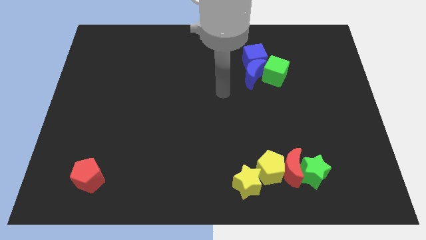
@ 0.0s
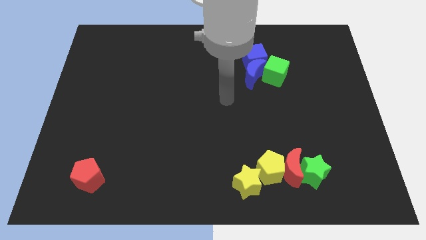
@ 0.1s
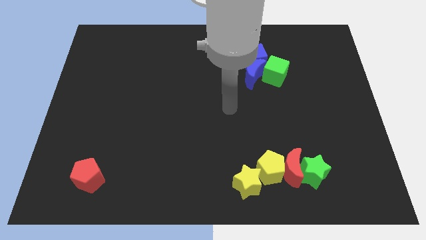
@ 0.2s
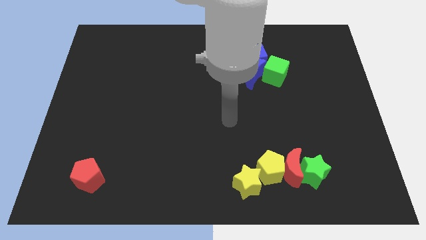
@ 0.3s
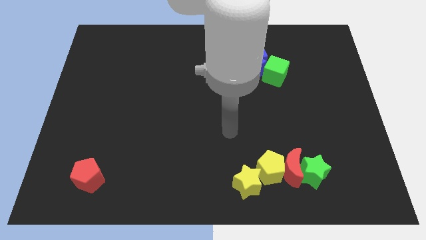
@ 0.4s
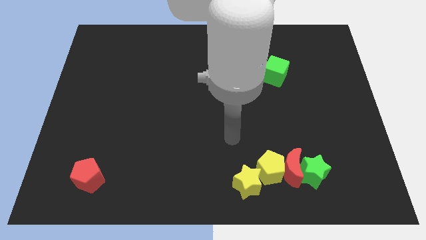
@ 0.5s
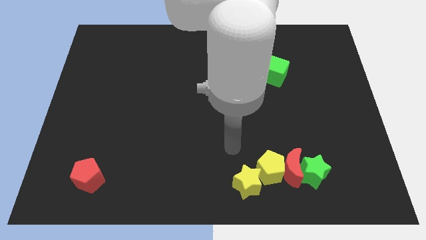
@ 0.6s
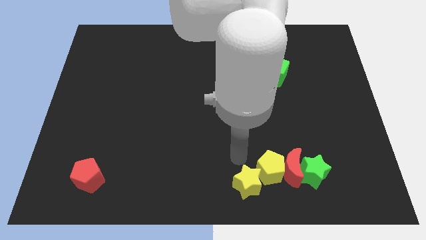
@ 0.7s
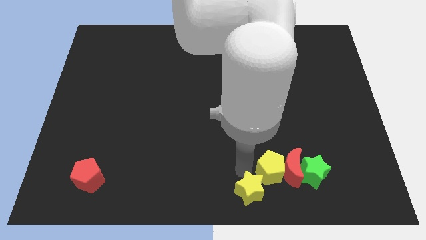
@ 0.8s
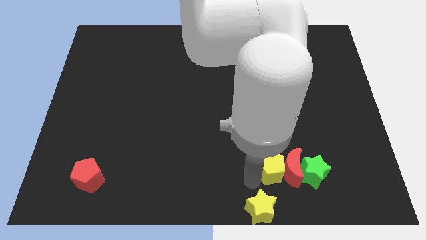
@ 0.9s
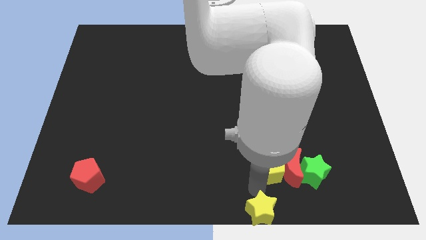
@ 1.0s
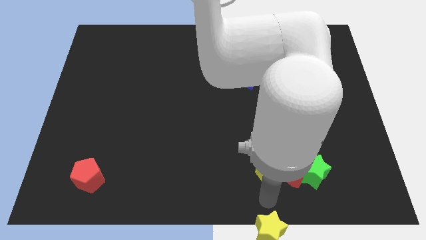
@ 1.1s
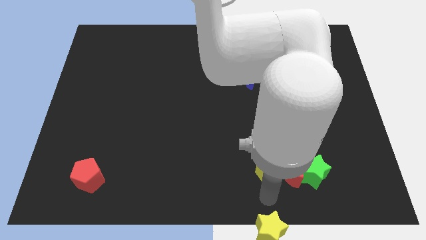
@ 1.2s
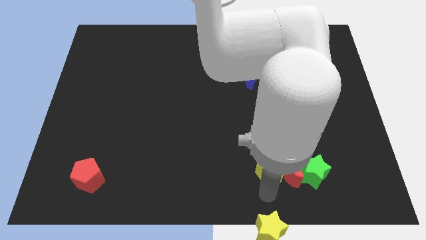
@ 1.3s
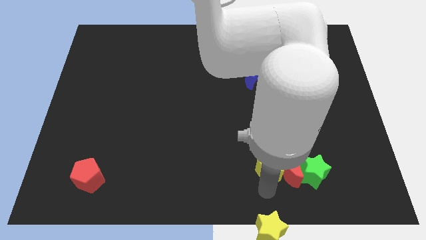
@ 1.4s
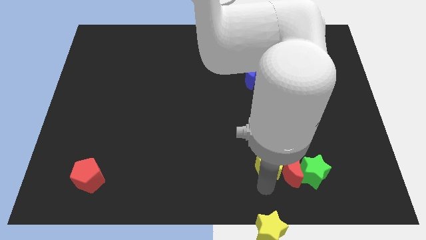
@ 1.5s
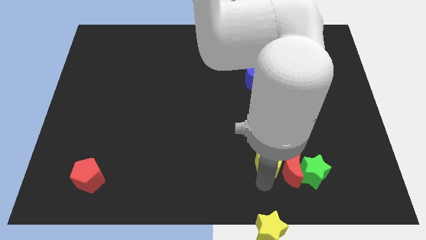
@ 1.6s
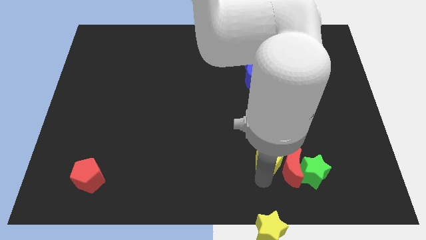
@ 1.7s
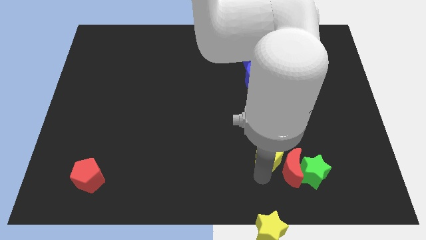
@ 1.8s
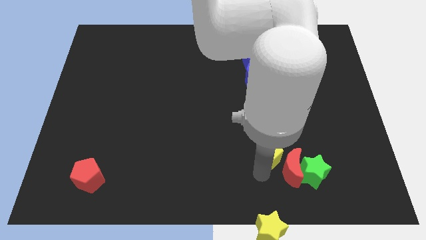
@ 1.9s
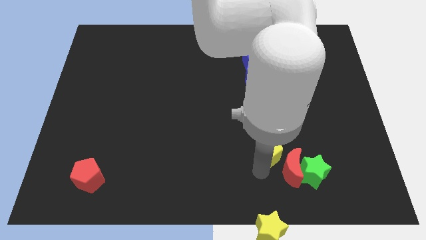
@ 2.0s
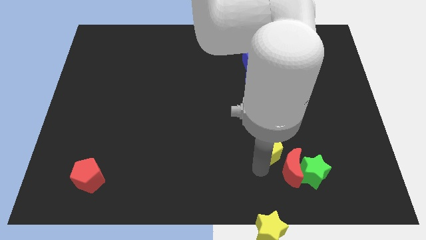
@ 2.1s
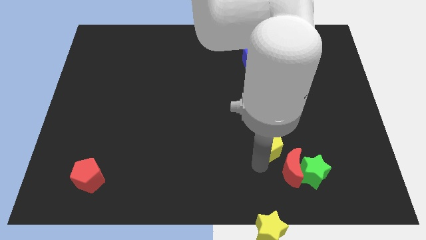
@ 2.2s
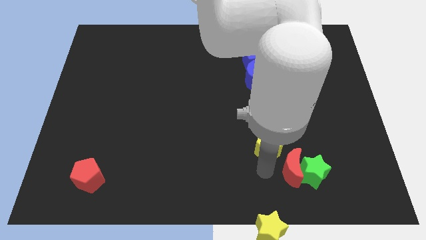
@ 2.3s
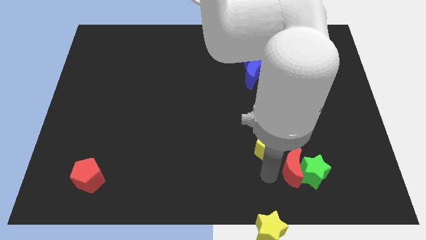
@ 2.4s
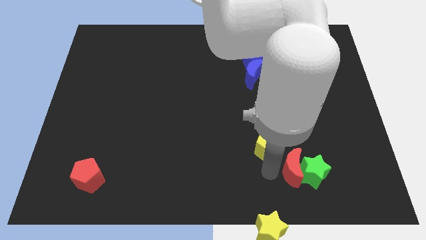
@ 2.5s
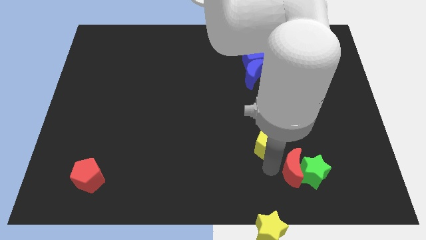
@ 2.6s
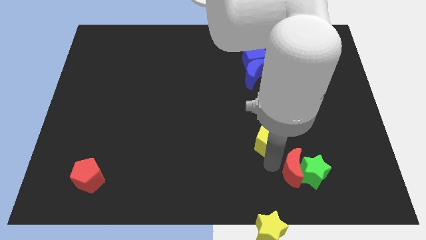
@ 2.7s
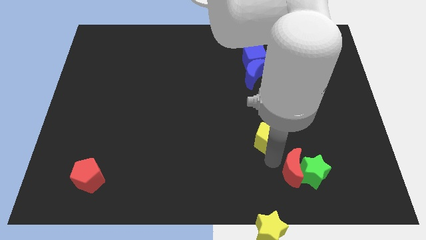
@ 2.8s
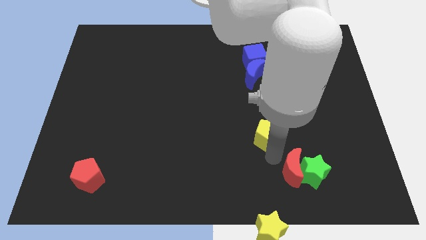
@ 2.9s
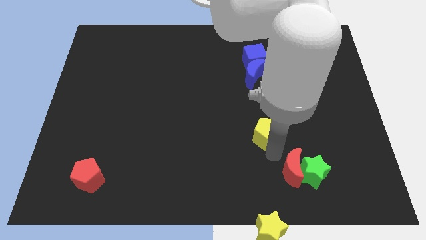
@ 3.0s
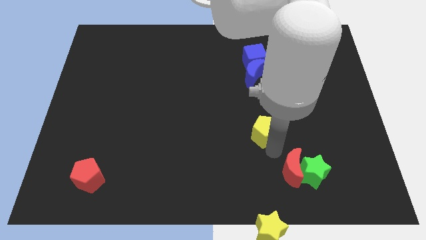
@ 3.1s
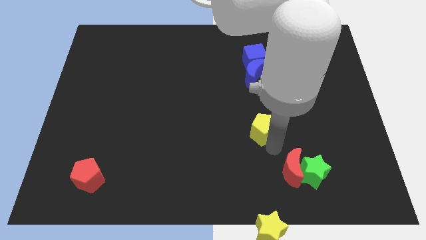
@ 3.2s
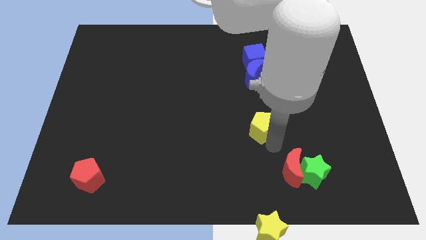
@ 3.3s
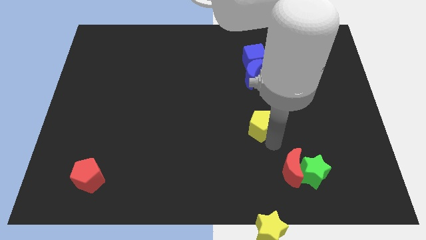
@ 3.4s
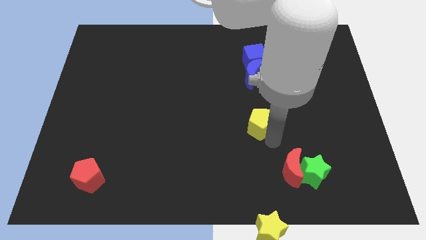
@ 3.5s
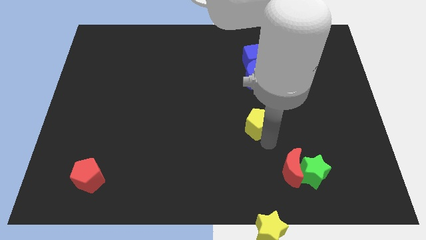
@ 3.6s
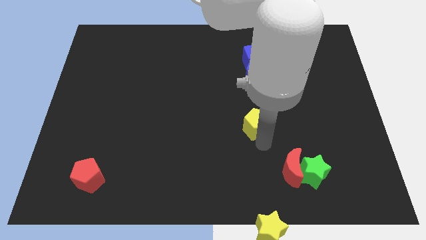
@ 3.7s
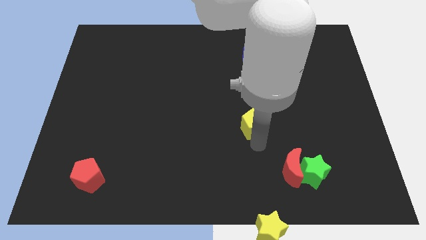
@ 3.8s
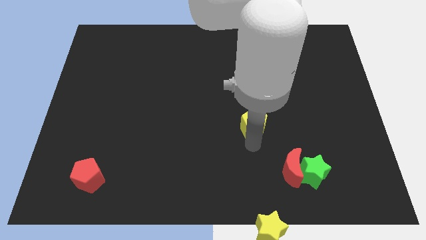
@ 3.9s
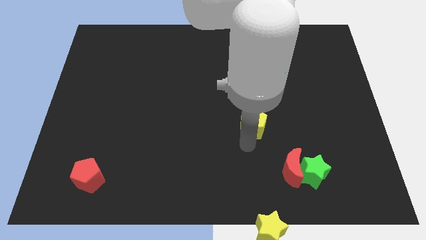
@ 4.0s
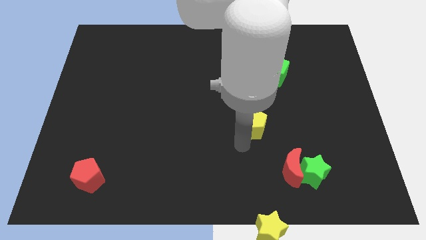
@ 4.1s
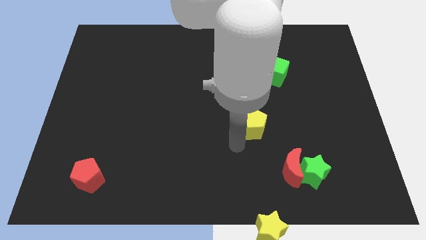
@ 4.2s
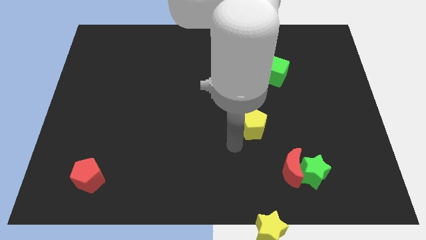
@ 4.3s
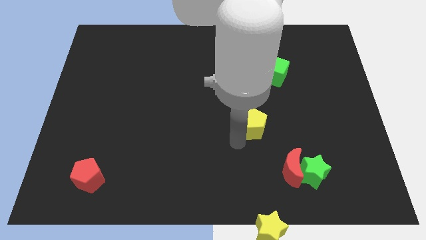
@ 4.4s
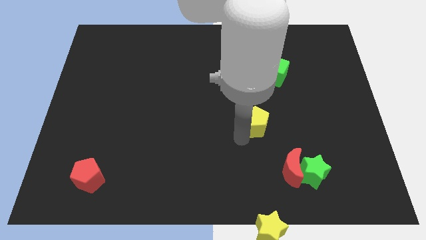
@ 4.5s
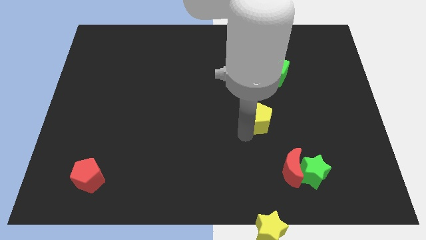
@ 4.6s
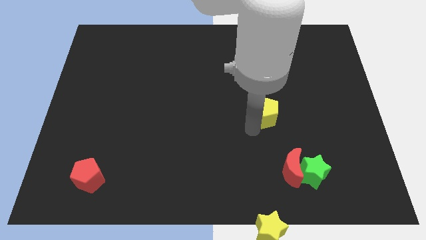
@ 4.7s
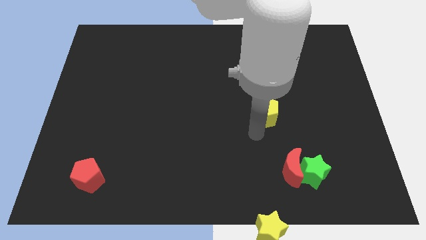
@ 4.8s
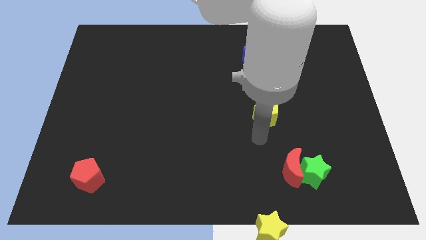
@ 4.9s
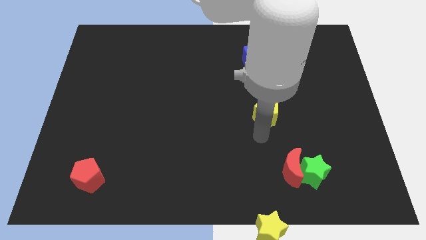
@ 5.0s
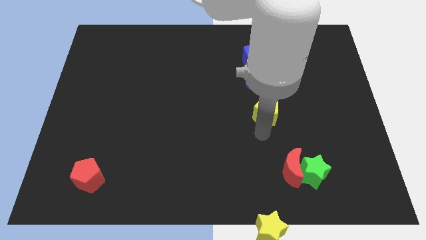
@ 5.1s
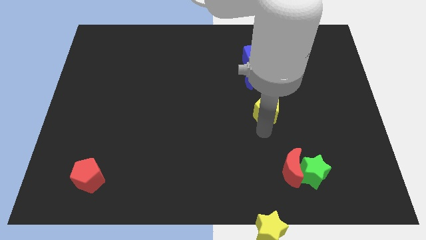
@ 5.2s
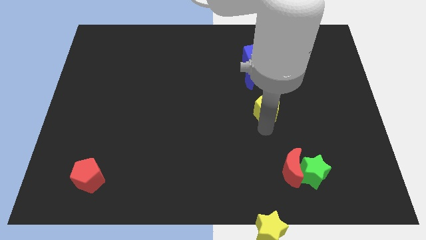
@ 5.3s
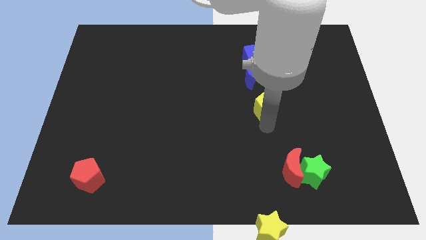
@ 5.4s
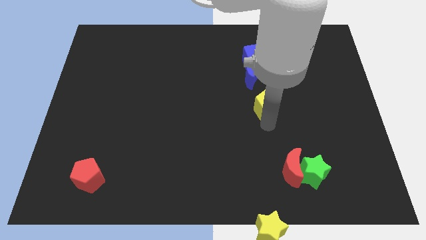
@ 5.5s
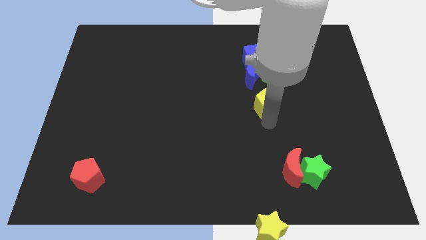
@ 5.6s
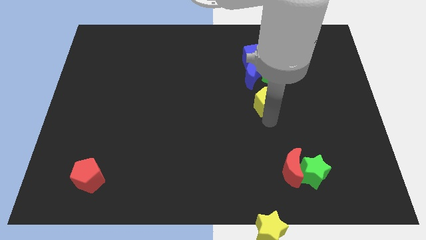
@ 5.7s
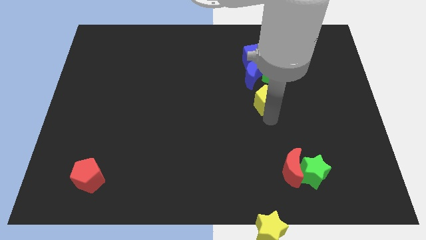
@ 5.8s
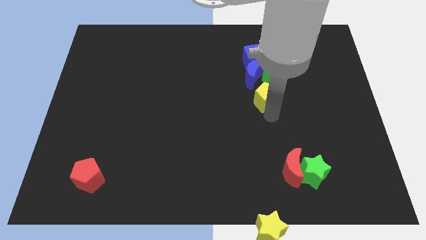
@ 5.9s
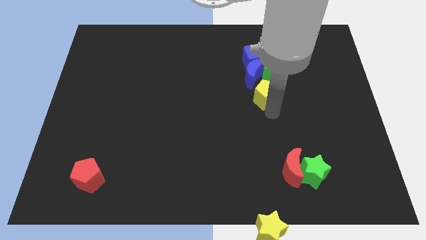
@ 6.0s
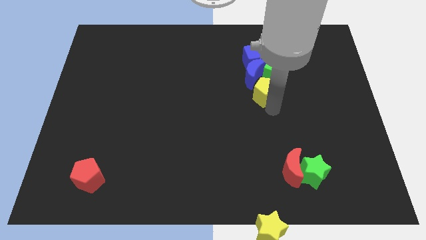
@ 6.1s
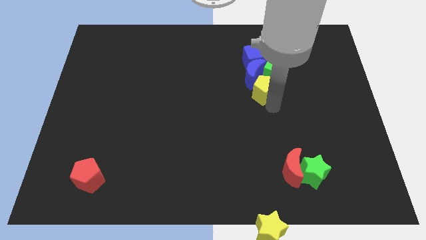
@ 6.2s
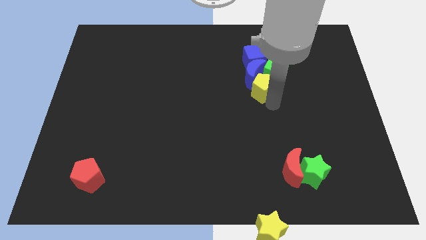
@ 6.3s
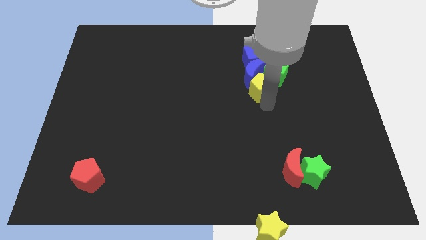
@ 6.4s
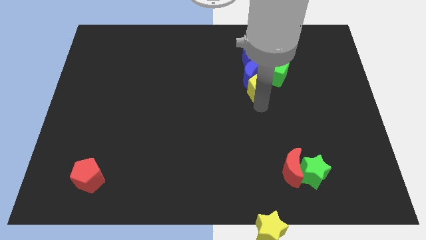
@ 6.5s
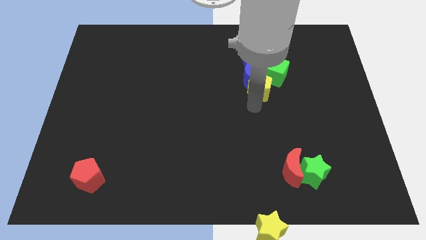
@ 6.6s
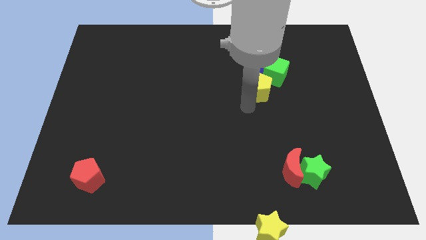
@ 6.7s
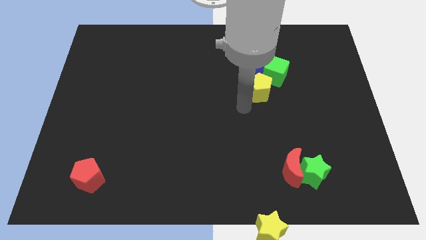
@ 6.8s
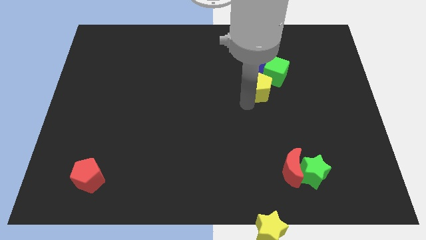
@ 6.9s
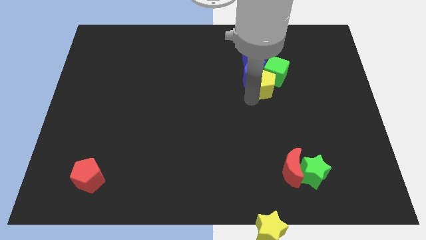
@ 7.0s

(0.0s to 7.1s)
push the yellow pentagon next to the green cube
